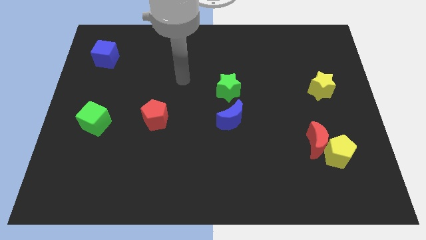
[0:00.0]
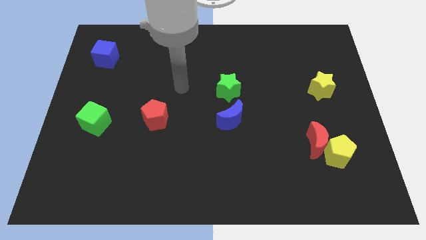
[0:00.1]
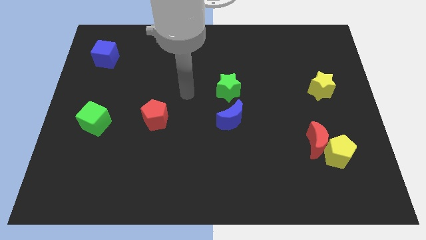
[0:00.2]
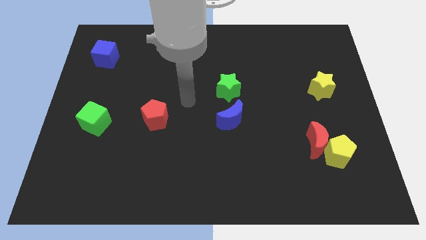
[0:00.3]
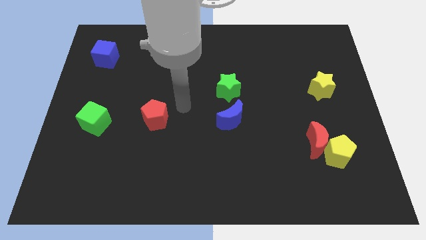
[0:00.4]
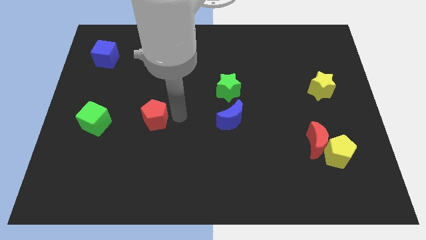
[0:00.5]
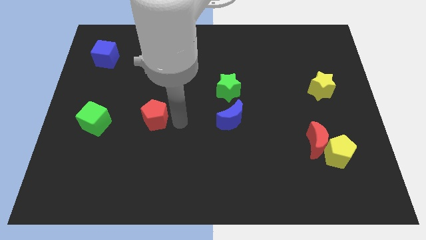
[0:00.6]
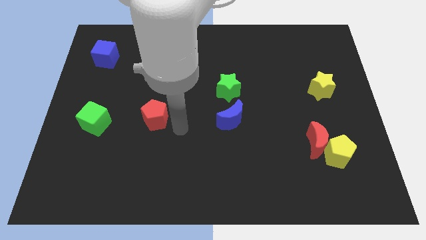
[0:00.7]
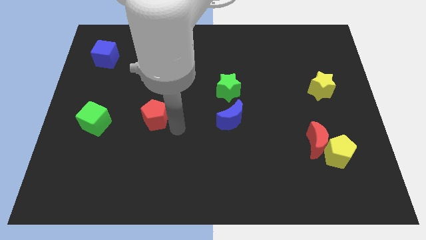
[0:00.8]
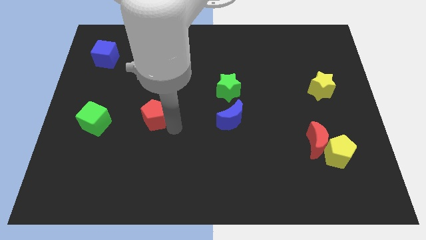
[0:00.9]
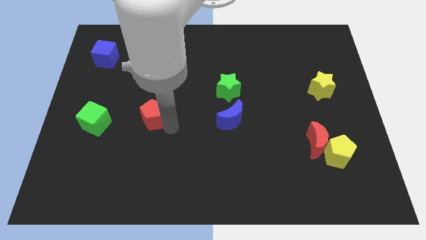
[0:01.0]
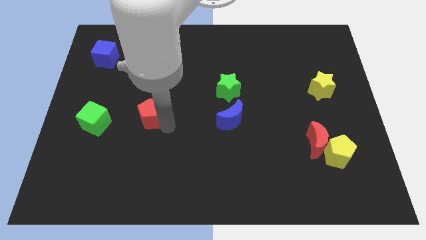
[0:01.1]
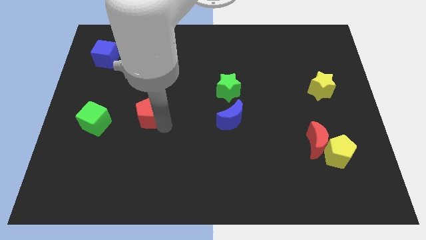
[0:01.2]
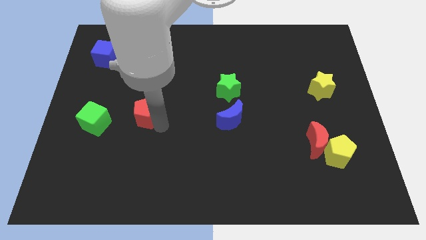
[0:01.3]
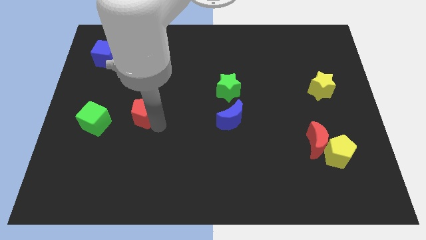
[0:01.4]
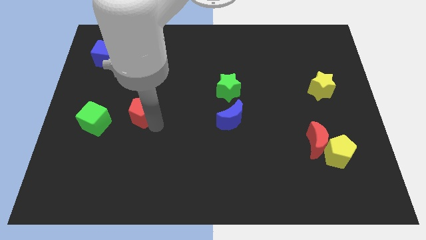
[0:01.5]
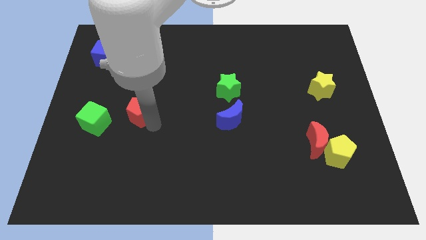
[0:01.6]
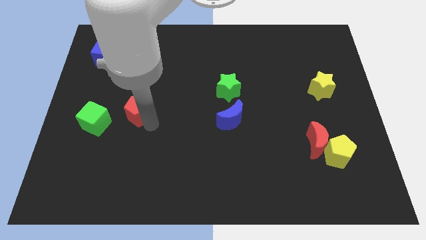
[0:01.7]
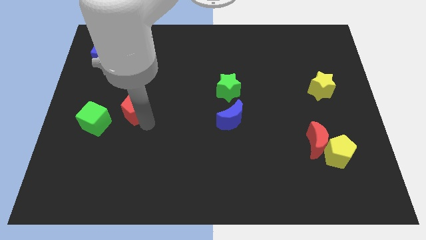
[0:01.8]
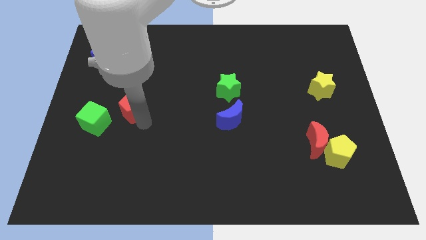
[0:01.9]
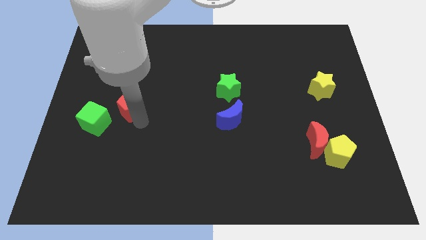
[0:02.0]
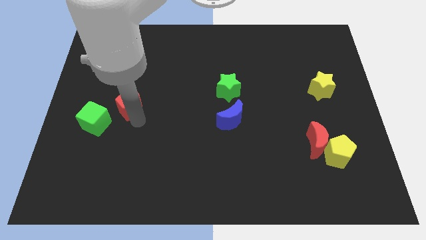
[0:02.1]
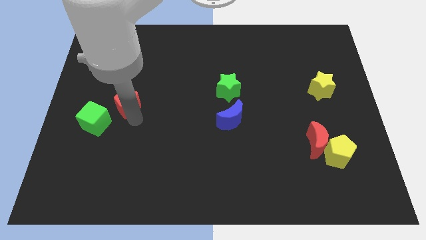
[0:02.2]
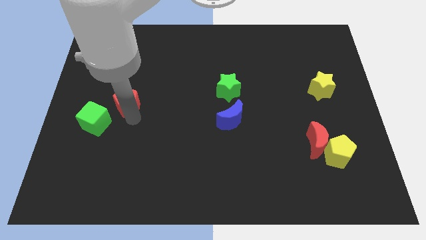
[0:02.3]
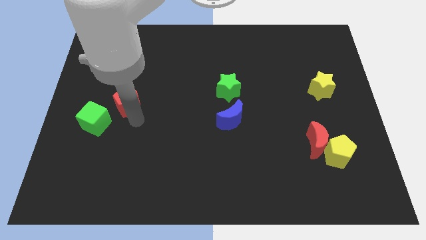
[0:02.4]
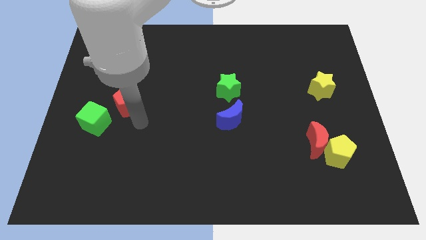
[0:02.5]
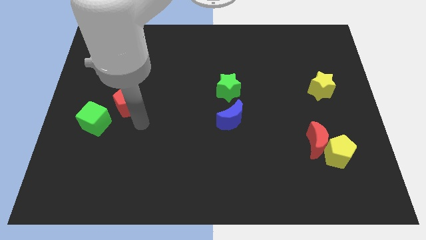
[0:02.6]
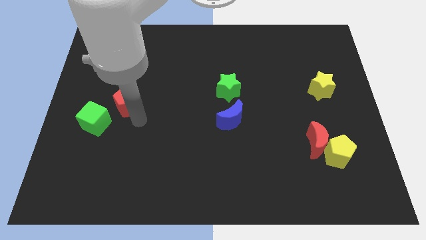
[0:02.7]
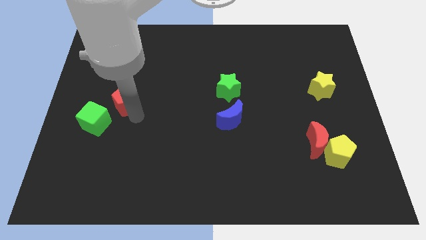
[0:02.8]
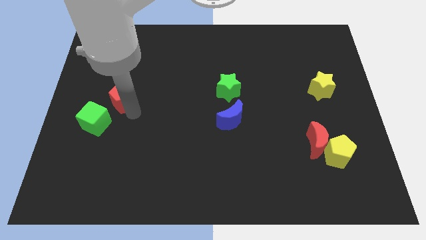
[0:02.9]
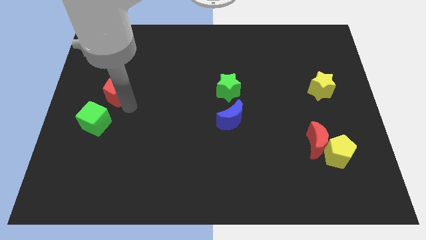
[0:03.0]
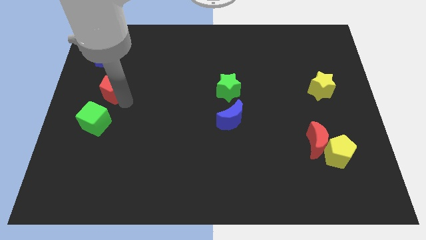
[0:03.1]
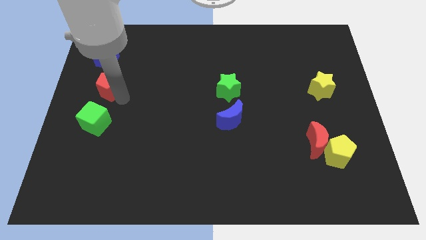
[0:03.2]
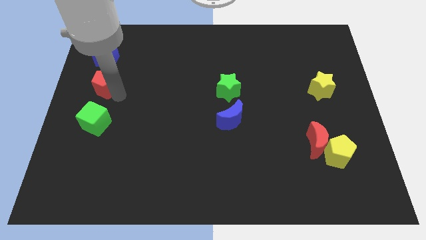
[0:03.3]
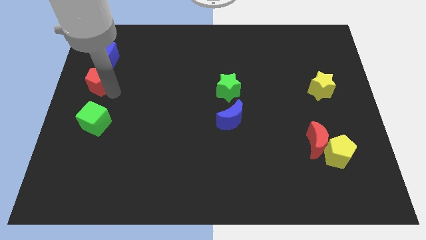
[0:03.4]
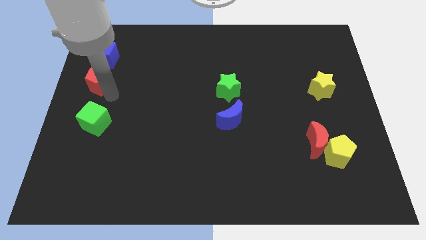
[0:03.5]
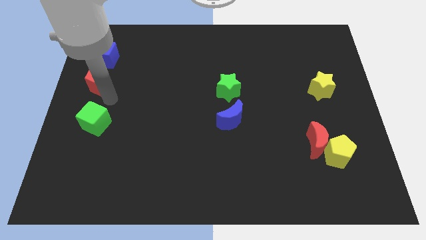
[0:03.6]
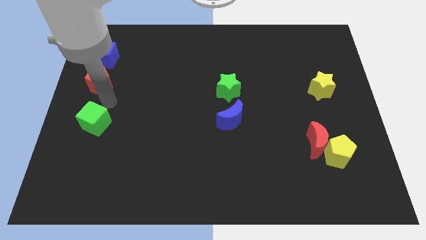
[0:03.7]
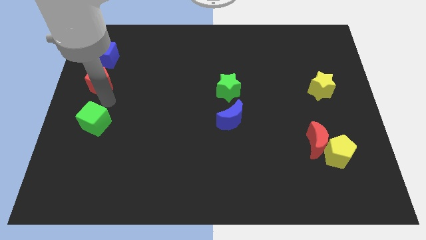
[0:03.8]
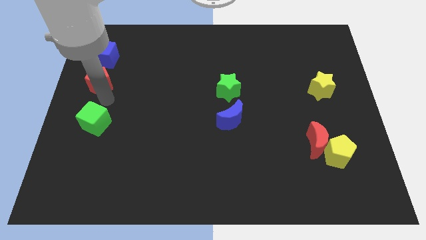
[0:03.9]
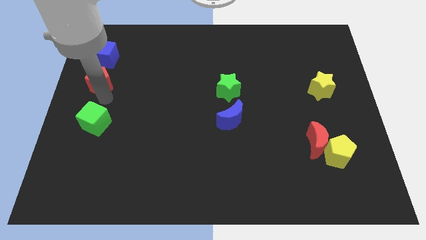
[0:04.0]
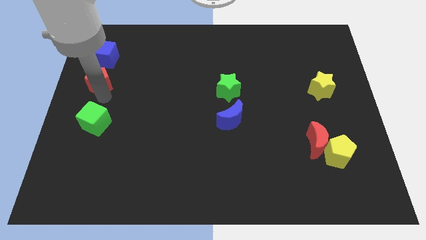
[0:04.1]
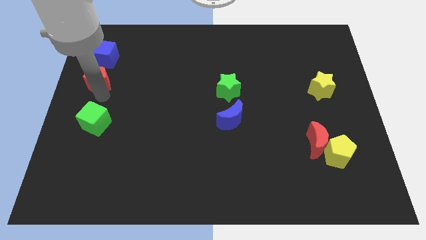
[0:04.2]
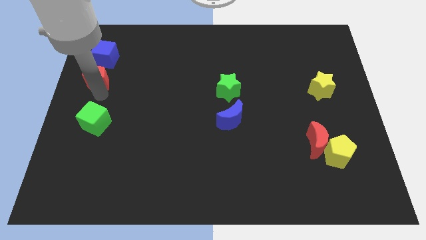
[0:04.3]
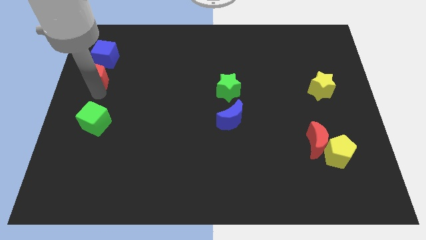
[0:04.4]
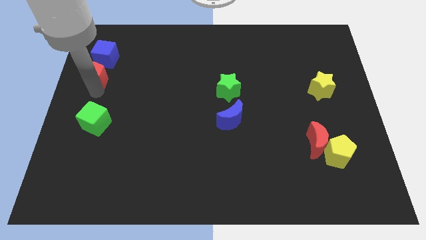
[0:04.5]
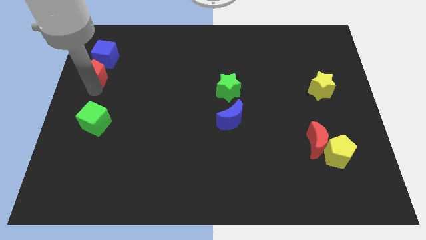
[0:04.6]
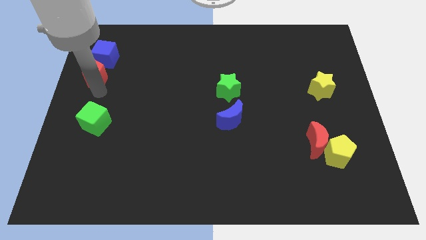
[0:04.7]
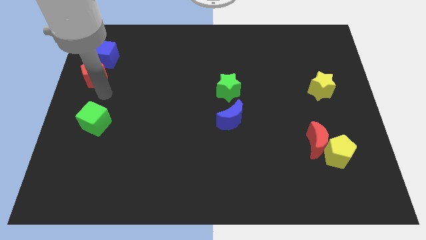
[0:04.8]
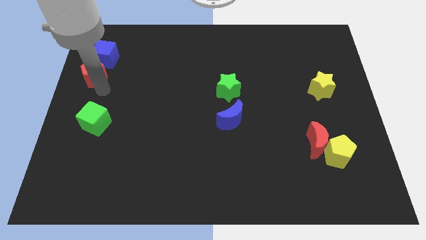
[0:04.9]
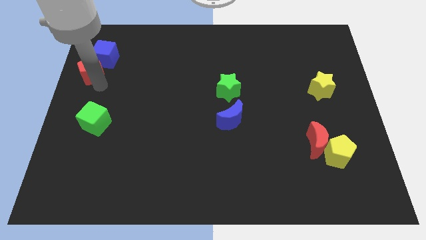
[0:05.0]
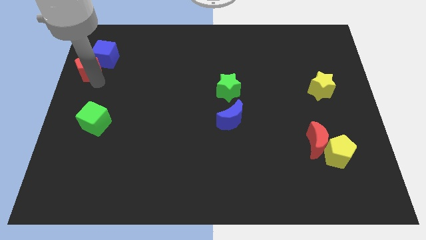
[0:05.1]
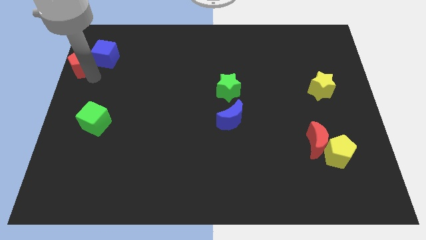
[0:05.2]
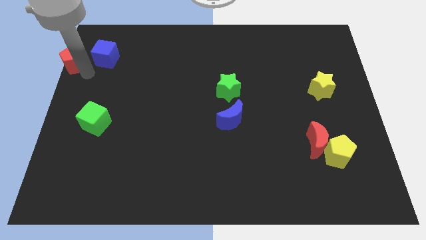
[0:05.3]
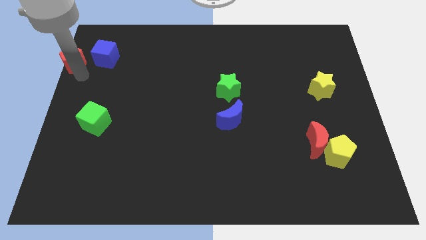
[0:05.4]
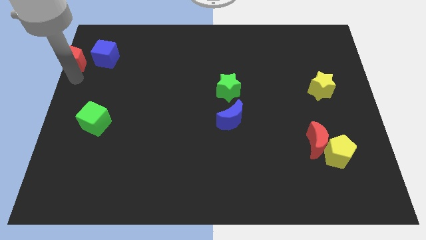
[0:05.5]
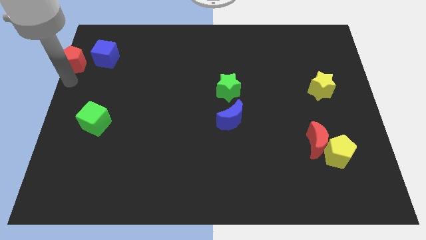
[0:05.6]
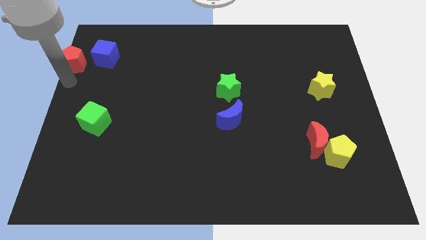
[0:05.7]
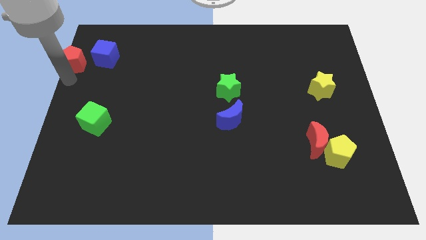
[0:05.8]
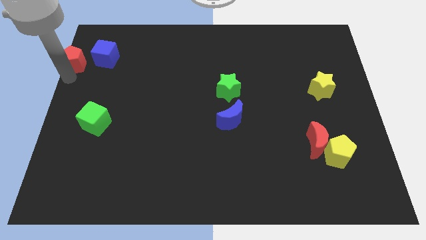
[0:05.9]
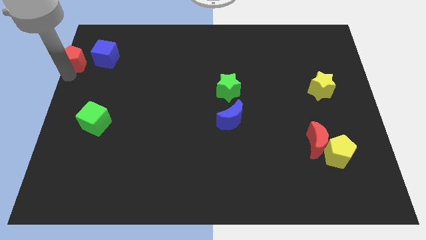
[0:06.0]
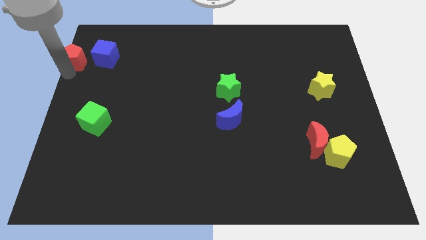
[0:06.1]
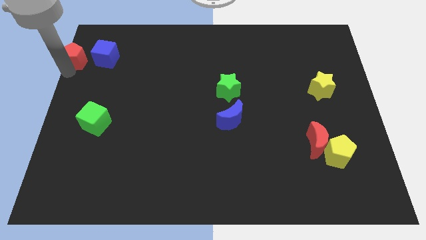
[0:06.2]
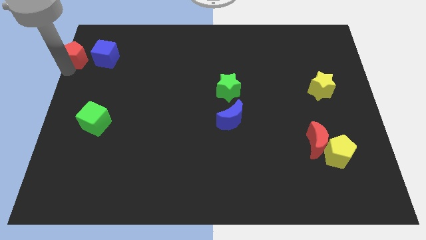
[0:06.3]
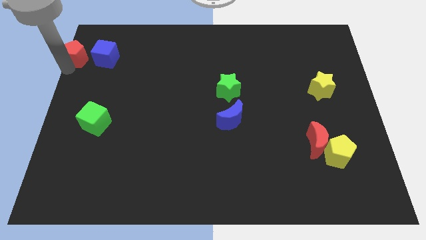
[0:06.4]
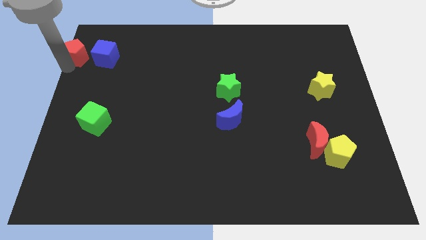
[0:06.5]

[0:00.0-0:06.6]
put the red pentagon to the top left corner

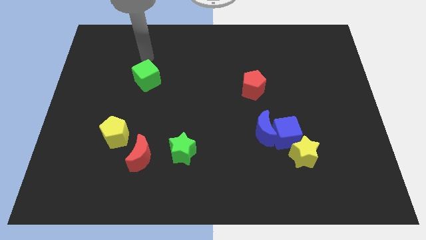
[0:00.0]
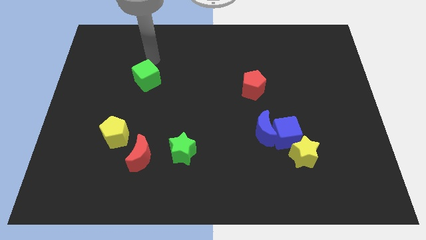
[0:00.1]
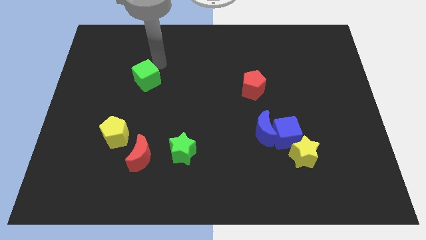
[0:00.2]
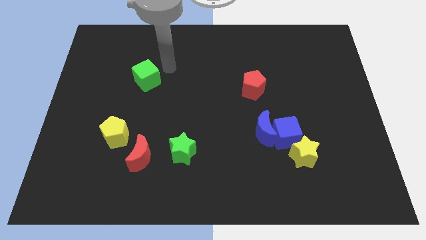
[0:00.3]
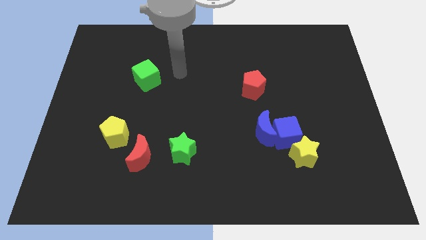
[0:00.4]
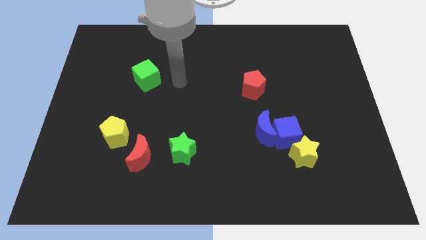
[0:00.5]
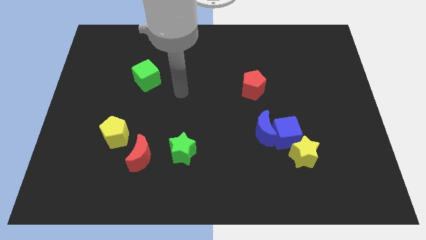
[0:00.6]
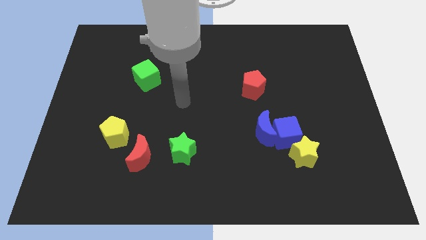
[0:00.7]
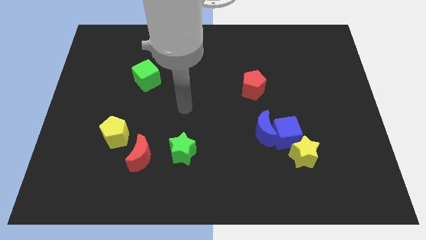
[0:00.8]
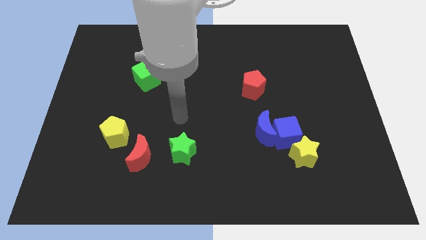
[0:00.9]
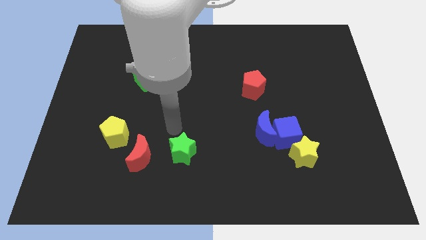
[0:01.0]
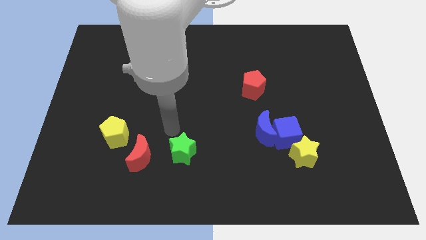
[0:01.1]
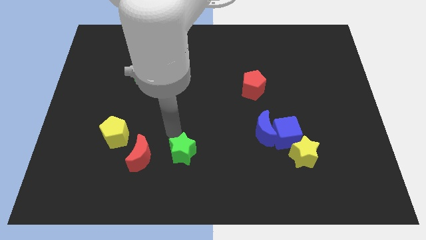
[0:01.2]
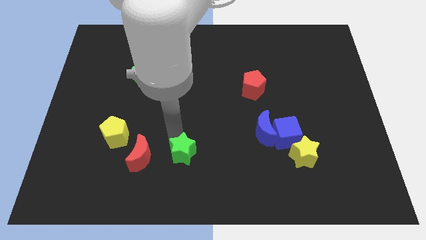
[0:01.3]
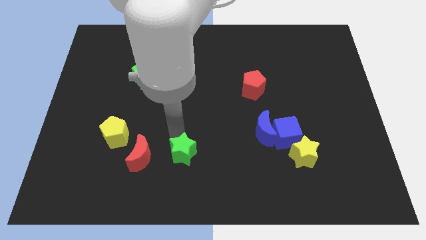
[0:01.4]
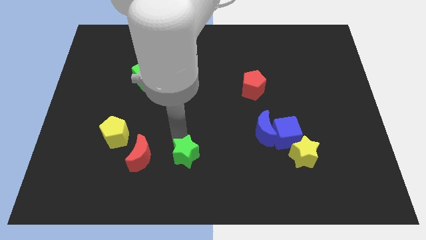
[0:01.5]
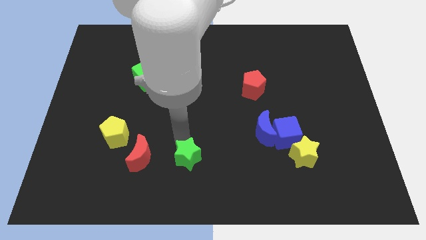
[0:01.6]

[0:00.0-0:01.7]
slide the green star to the bottom
